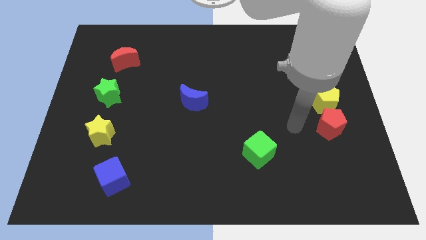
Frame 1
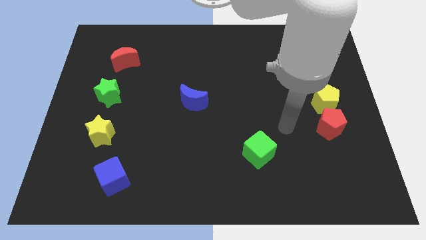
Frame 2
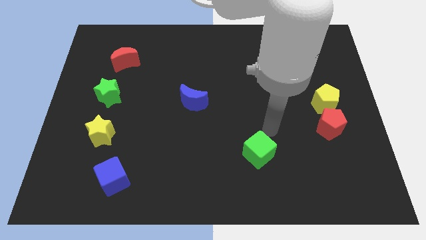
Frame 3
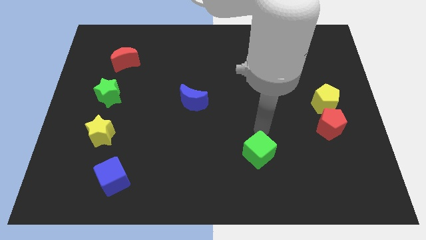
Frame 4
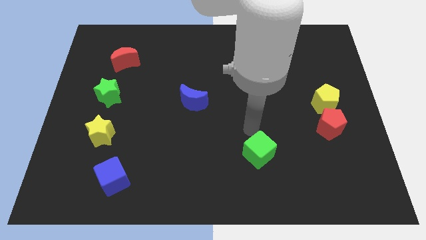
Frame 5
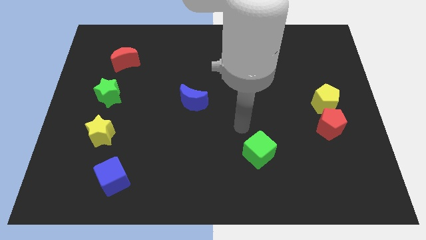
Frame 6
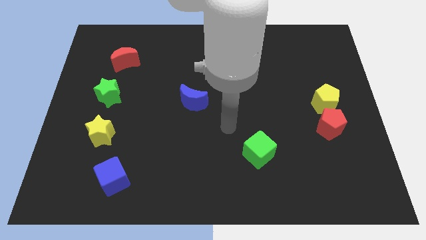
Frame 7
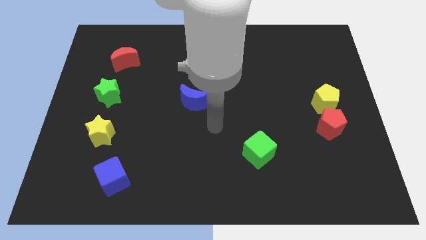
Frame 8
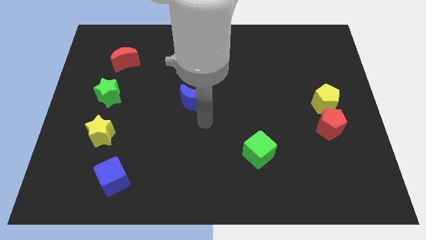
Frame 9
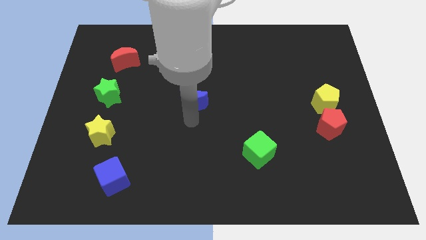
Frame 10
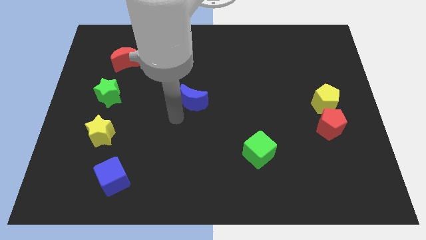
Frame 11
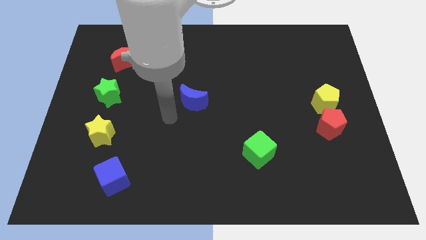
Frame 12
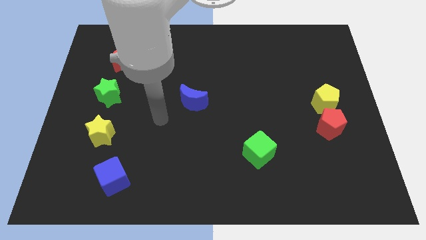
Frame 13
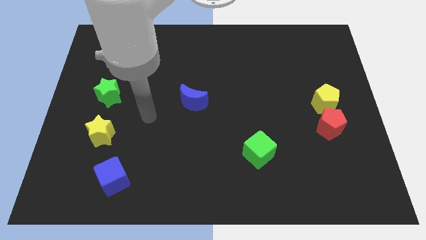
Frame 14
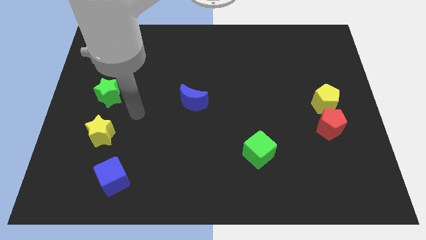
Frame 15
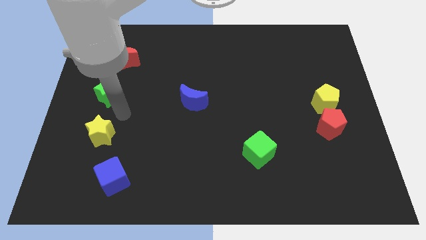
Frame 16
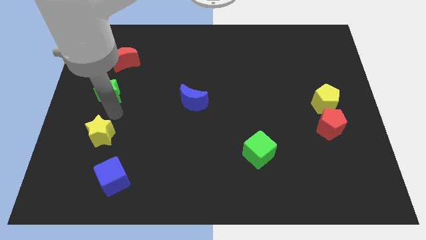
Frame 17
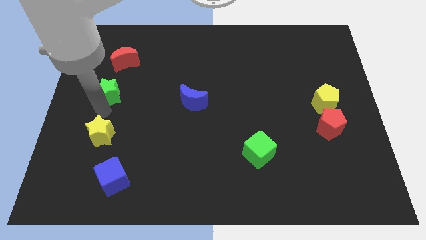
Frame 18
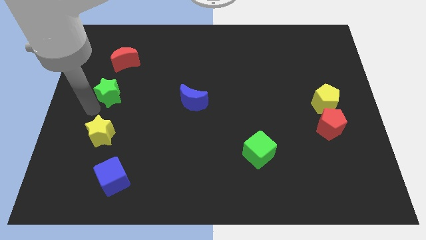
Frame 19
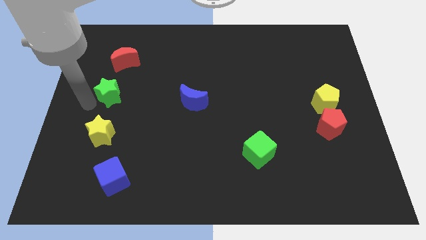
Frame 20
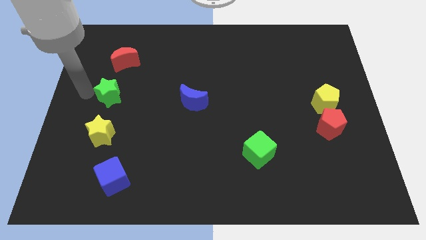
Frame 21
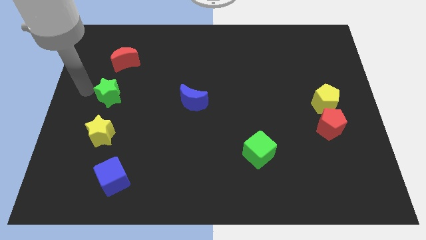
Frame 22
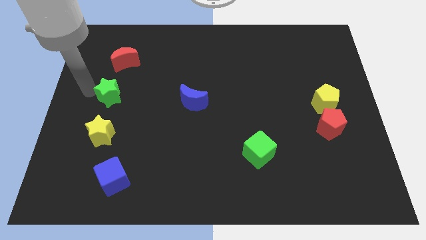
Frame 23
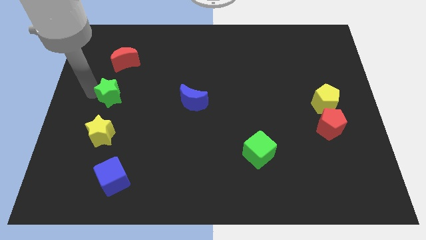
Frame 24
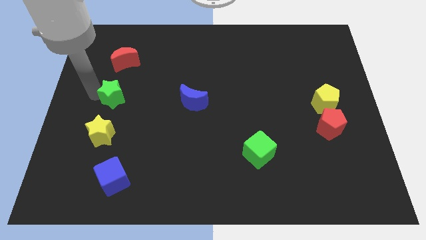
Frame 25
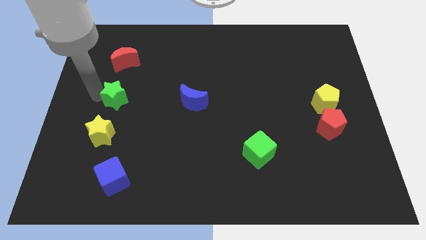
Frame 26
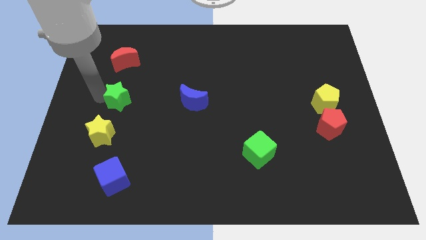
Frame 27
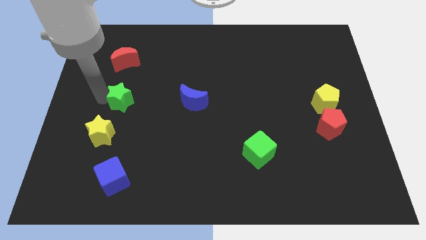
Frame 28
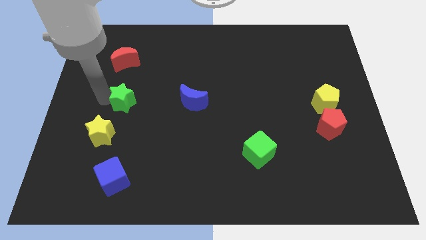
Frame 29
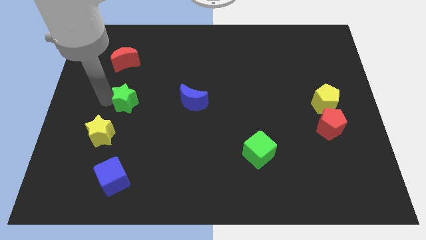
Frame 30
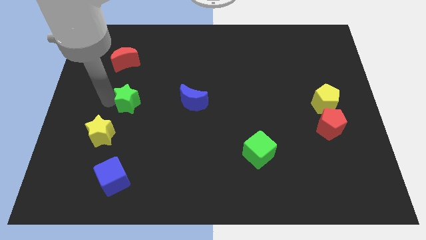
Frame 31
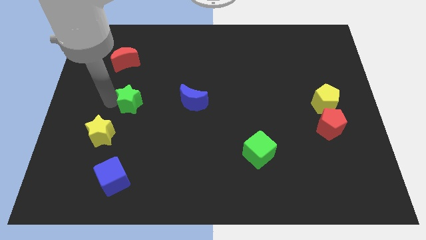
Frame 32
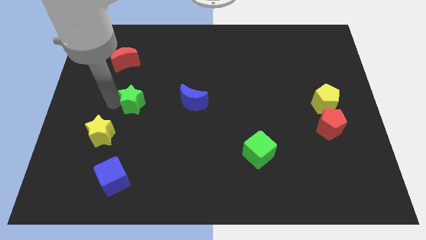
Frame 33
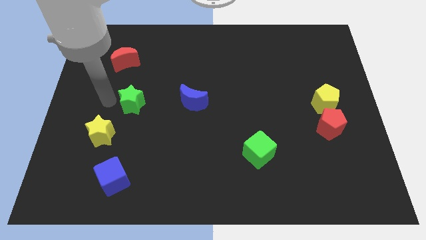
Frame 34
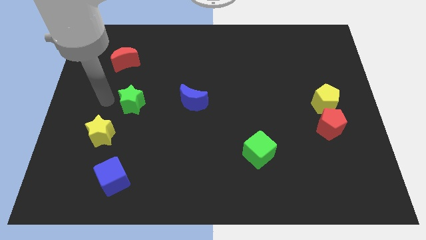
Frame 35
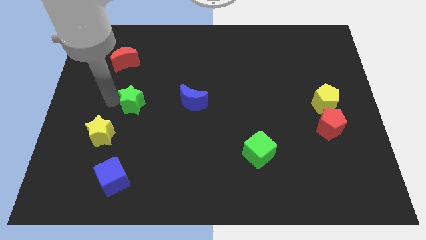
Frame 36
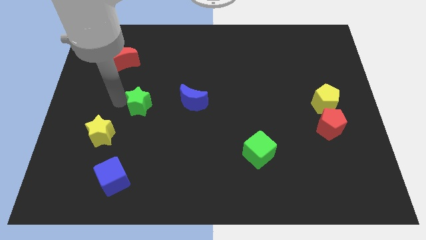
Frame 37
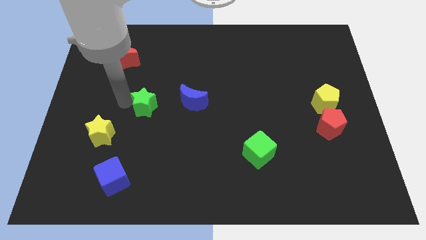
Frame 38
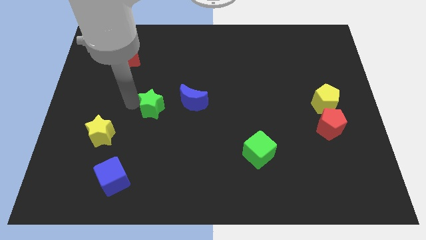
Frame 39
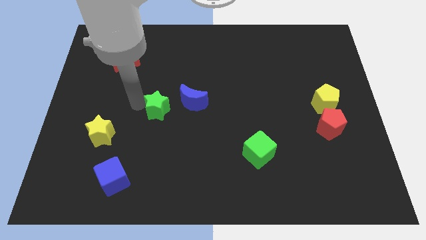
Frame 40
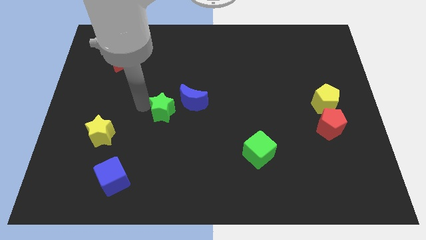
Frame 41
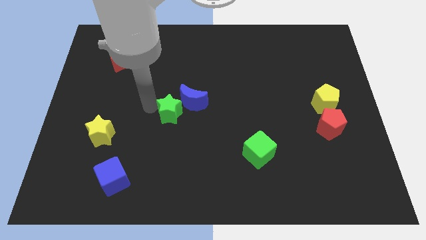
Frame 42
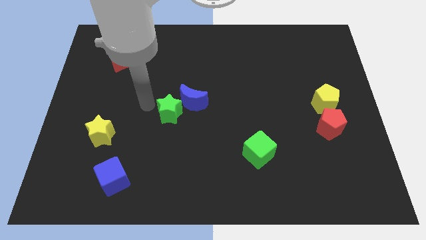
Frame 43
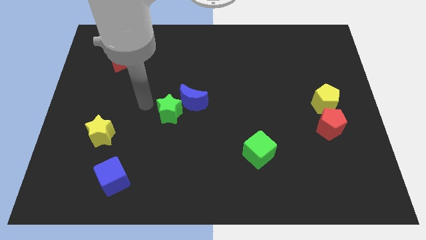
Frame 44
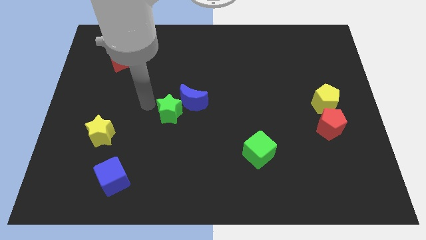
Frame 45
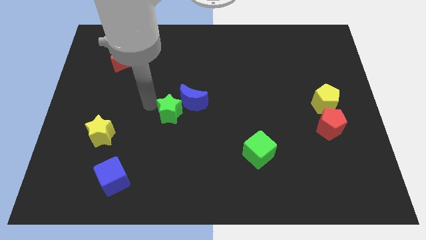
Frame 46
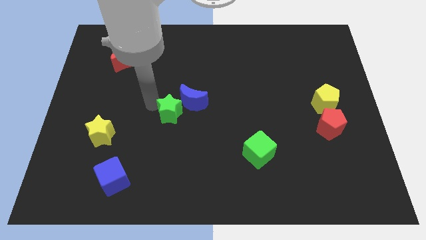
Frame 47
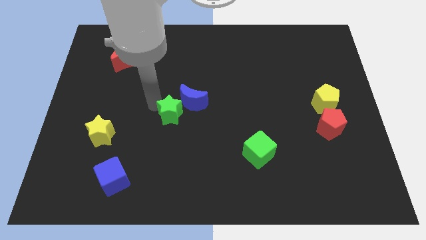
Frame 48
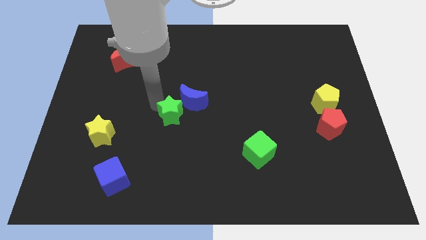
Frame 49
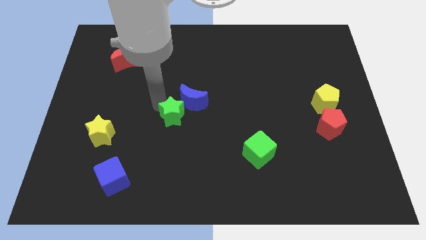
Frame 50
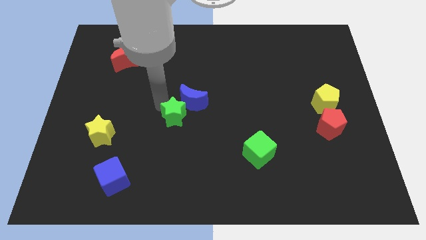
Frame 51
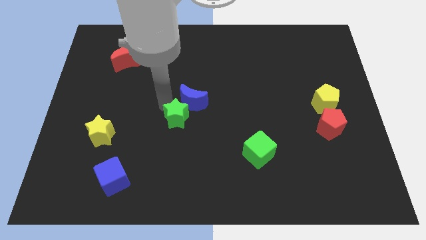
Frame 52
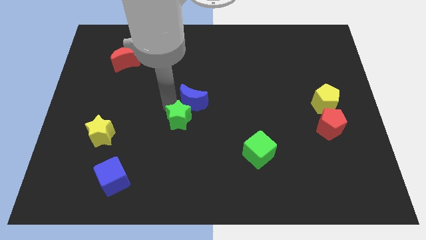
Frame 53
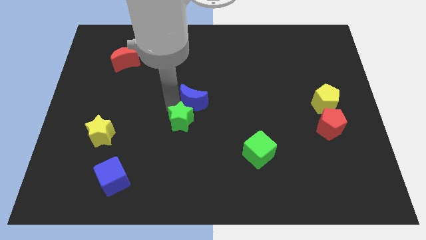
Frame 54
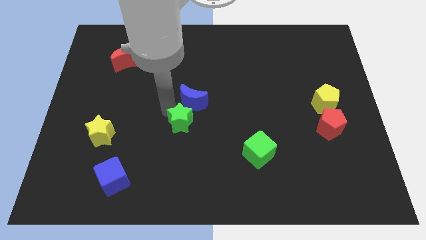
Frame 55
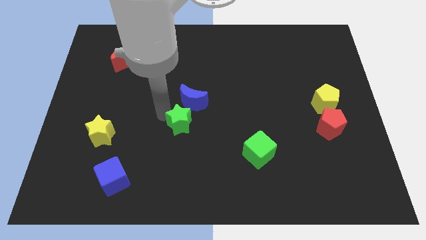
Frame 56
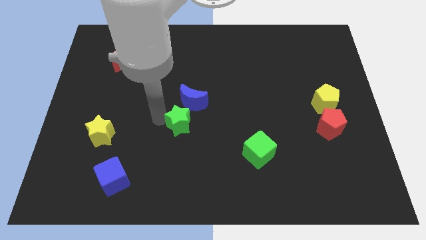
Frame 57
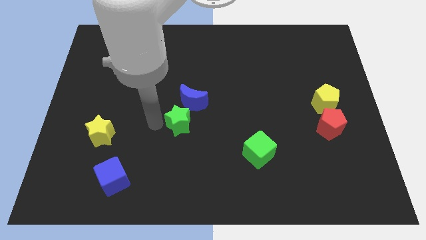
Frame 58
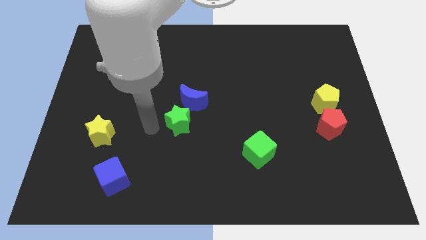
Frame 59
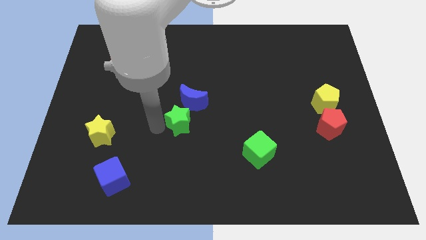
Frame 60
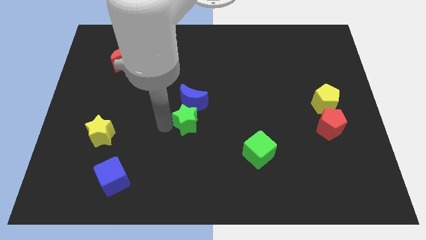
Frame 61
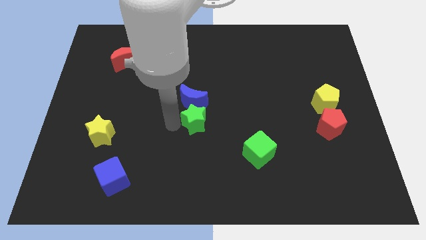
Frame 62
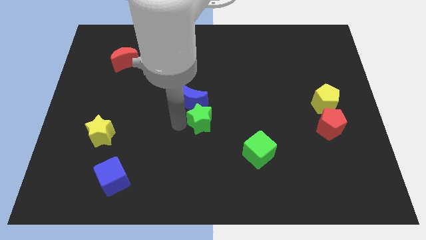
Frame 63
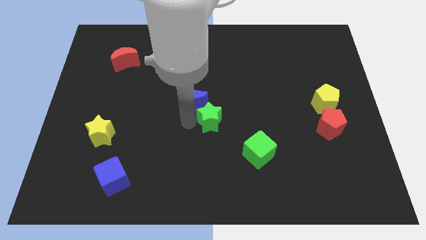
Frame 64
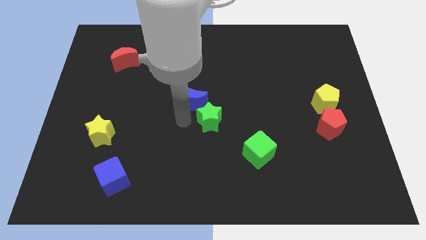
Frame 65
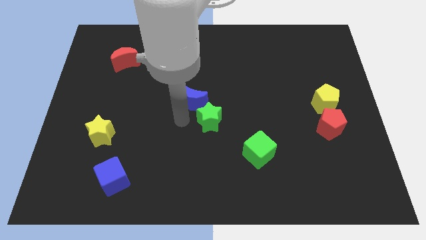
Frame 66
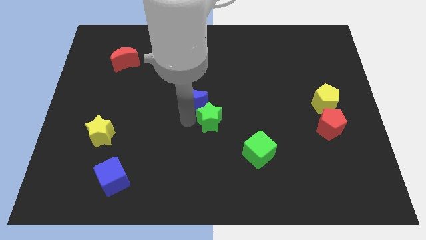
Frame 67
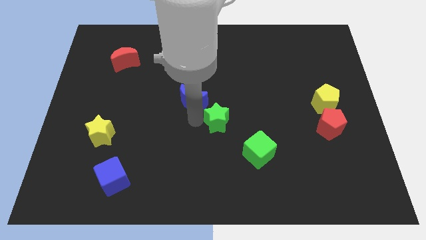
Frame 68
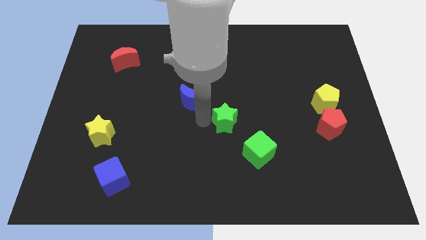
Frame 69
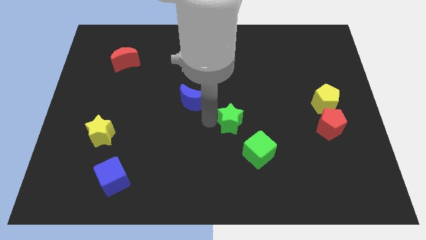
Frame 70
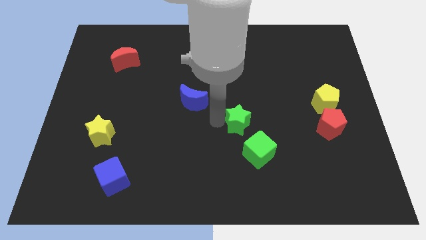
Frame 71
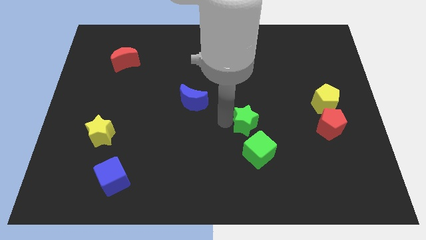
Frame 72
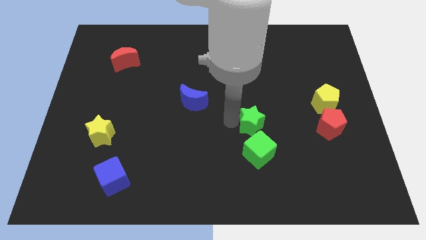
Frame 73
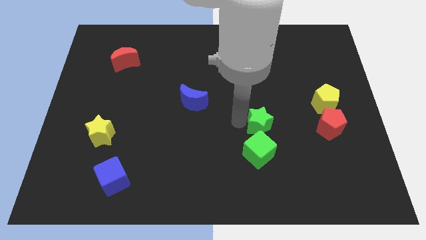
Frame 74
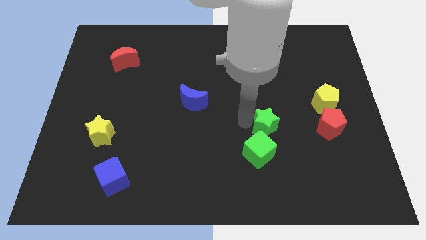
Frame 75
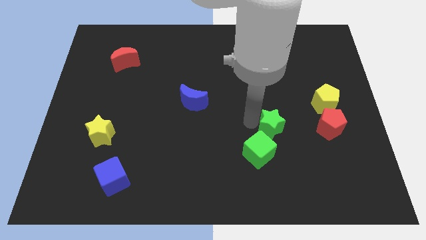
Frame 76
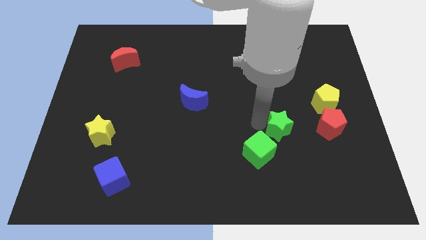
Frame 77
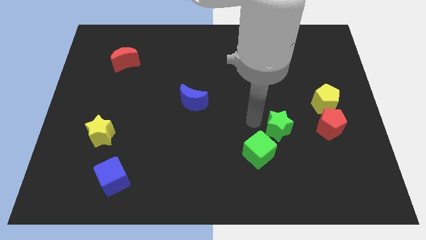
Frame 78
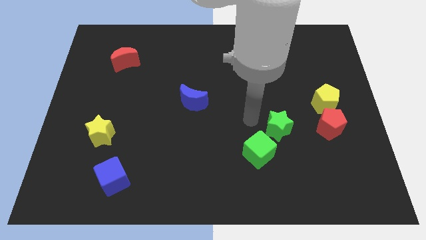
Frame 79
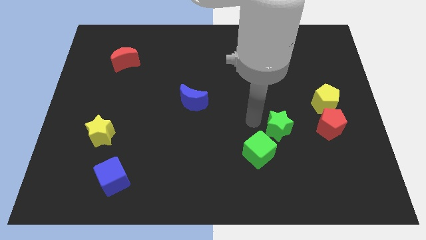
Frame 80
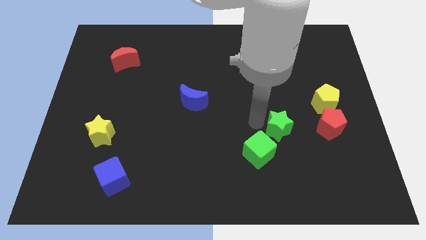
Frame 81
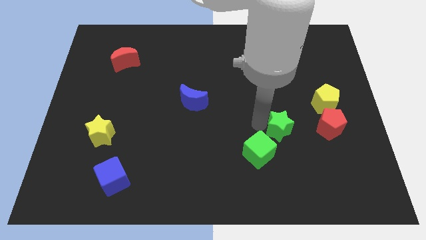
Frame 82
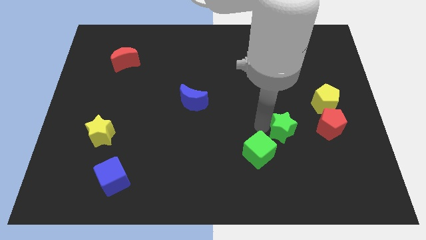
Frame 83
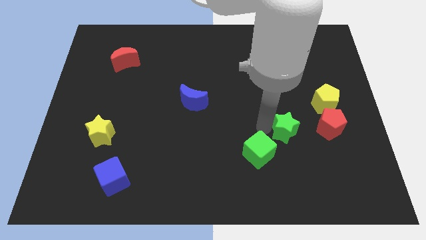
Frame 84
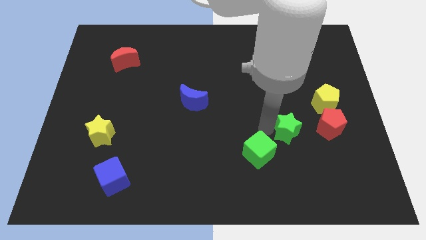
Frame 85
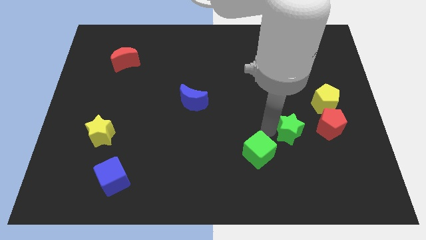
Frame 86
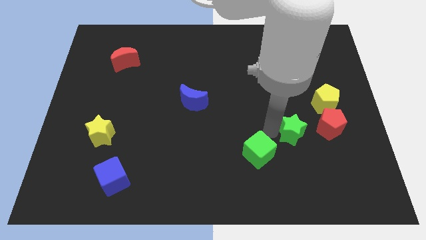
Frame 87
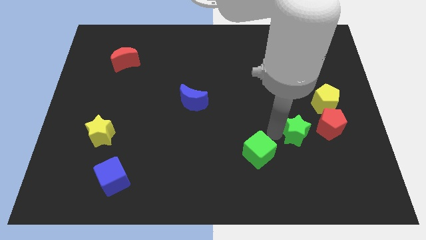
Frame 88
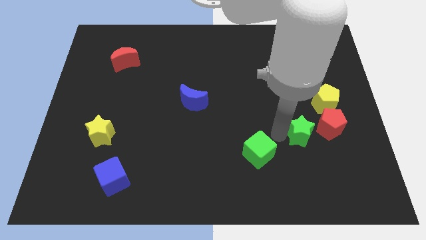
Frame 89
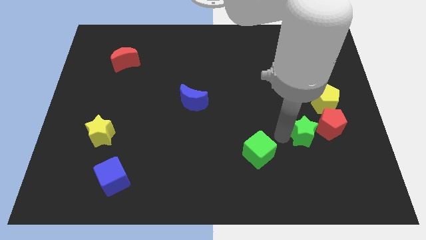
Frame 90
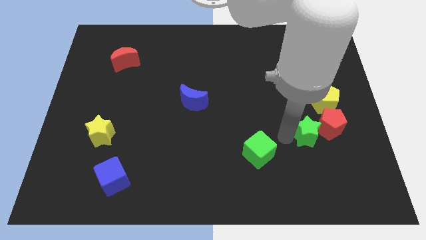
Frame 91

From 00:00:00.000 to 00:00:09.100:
slide the green star to the red pentagon
